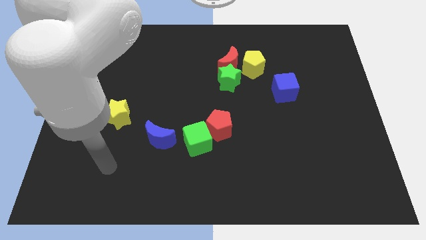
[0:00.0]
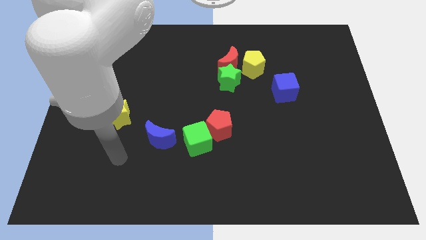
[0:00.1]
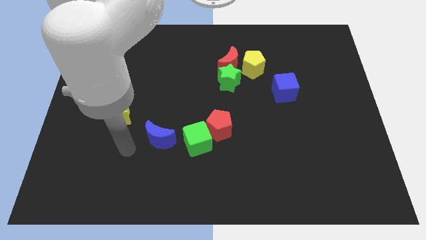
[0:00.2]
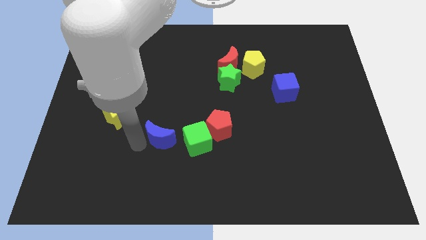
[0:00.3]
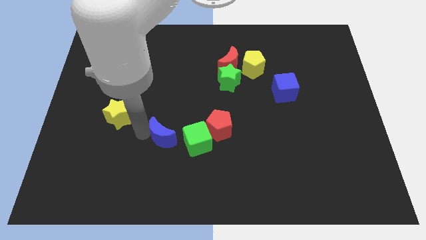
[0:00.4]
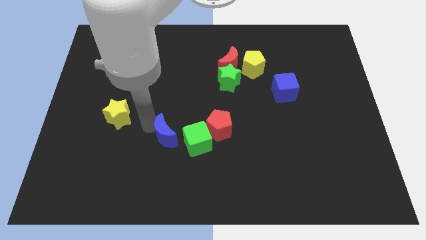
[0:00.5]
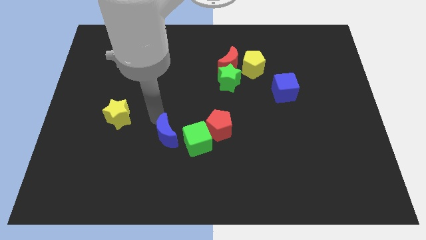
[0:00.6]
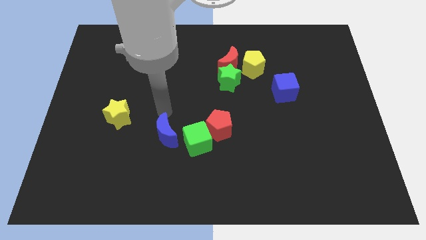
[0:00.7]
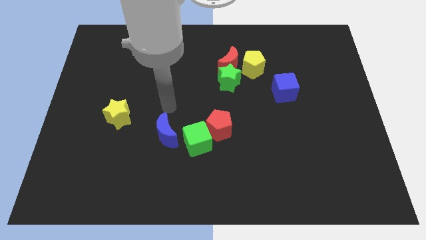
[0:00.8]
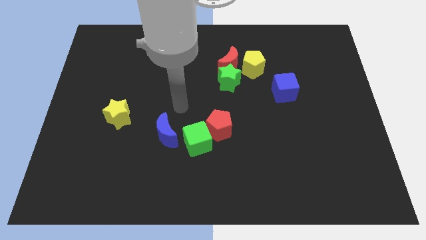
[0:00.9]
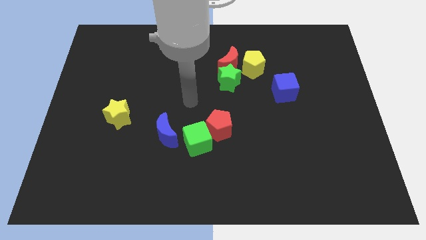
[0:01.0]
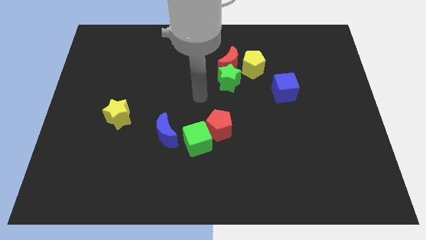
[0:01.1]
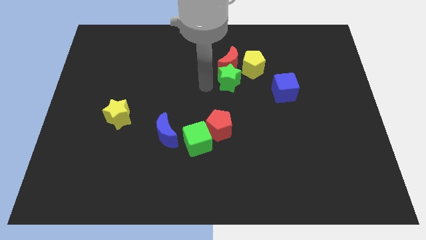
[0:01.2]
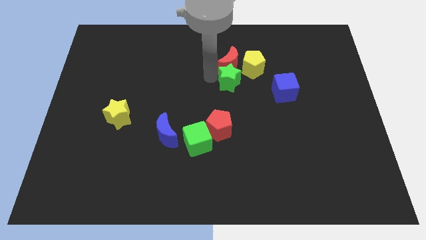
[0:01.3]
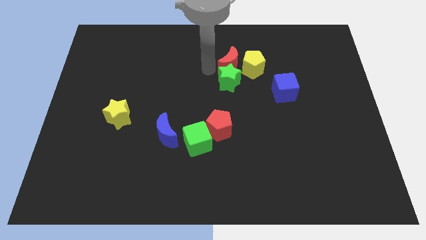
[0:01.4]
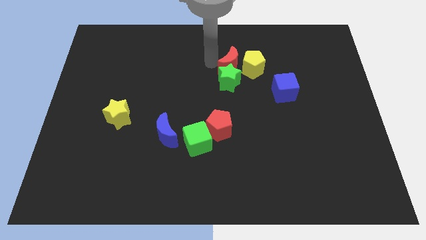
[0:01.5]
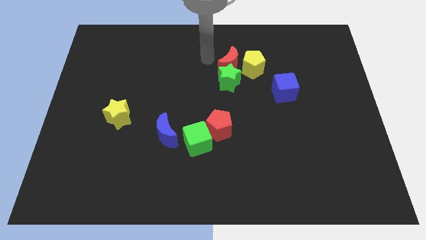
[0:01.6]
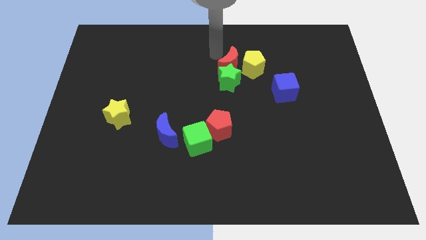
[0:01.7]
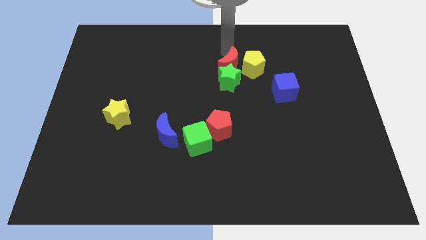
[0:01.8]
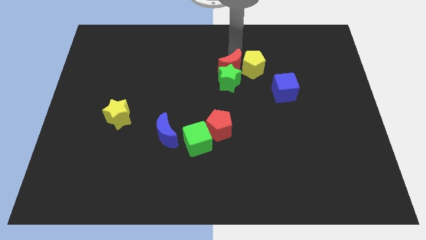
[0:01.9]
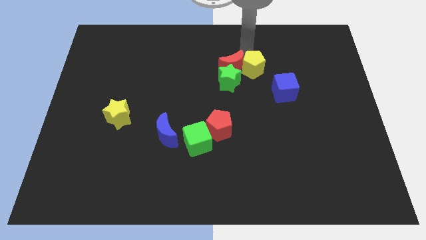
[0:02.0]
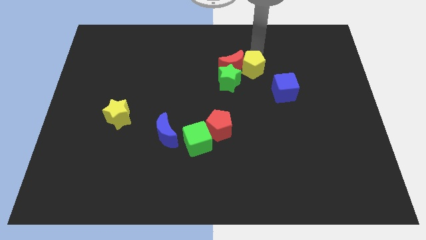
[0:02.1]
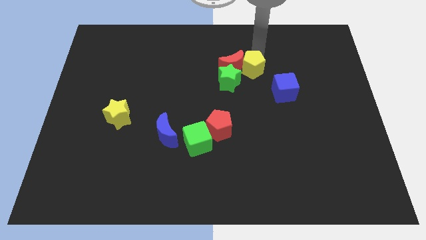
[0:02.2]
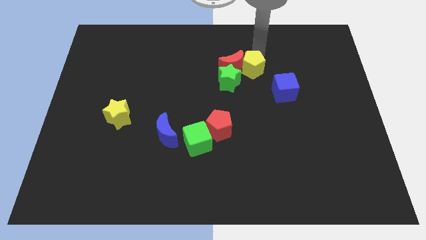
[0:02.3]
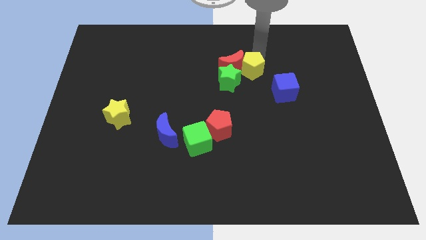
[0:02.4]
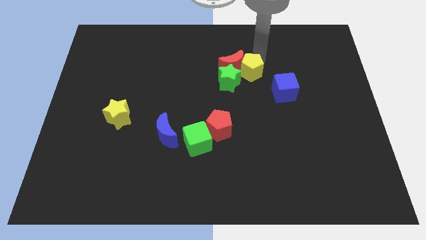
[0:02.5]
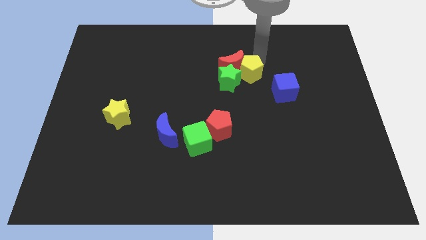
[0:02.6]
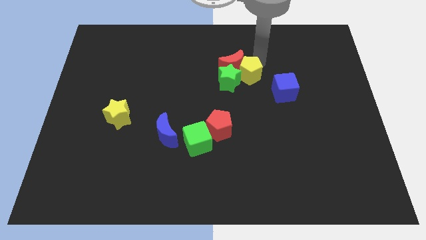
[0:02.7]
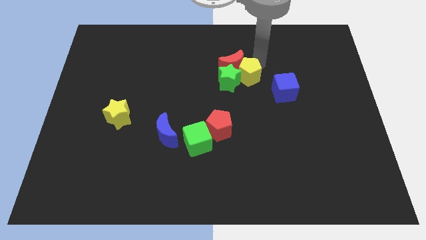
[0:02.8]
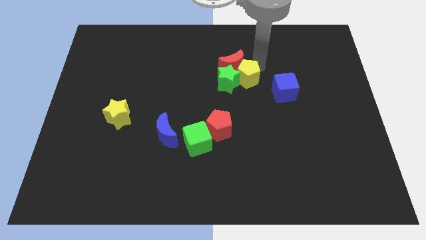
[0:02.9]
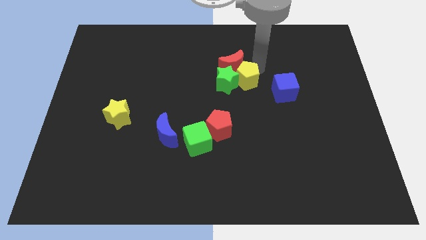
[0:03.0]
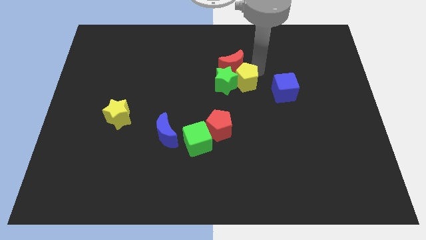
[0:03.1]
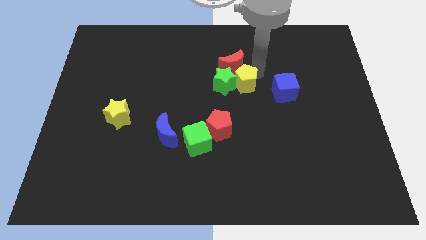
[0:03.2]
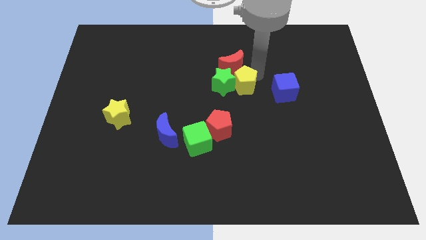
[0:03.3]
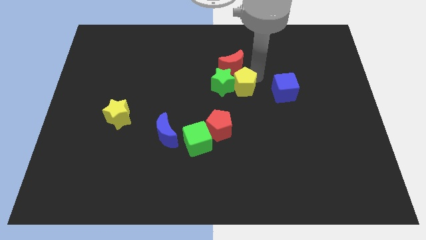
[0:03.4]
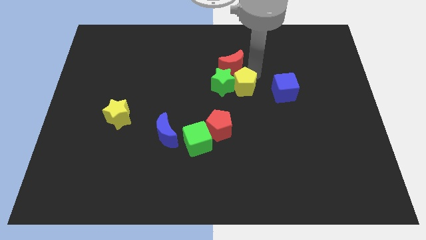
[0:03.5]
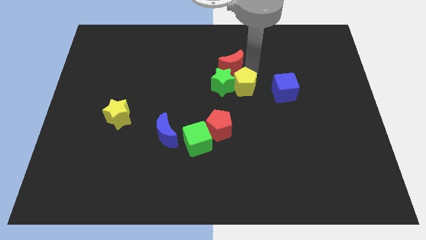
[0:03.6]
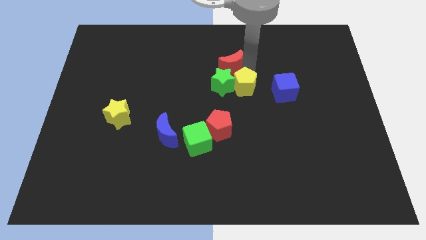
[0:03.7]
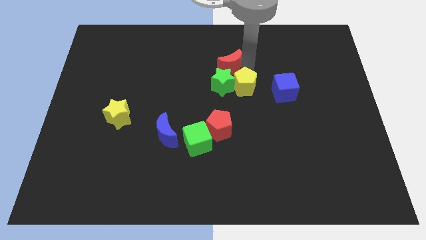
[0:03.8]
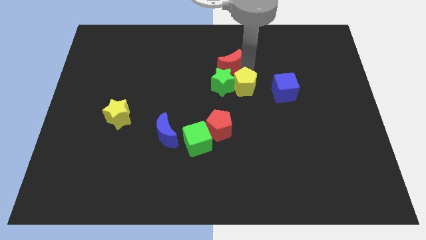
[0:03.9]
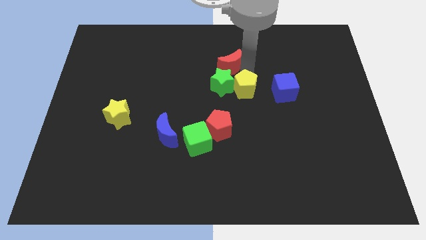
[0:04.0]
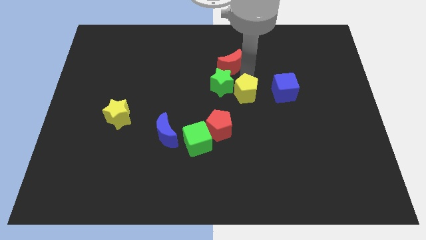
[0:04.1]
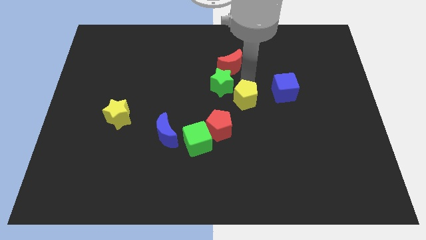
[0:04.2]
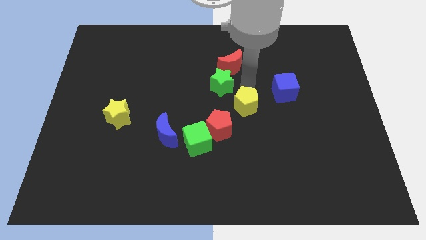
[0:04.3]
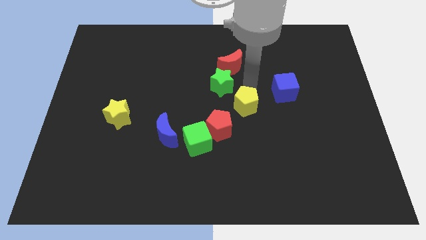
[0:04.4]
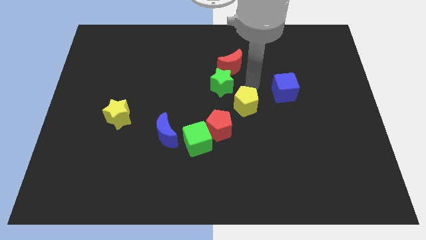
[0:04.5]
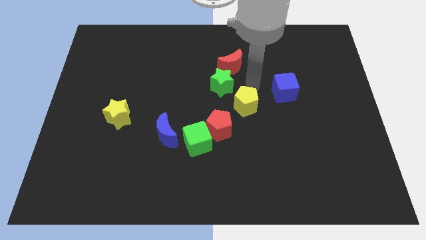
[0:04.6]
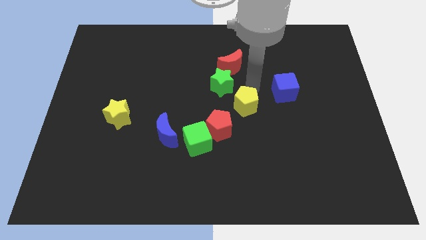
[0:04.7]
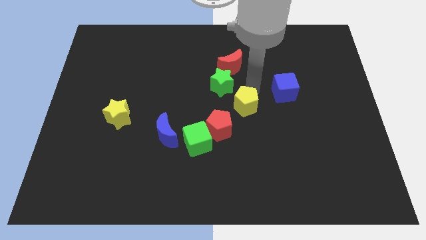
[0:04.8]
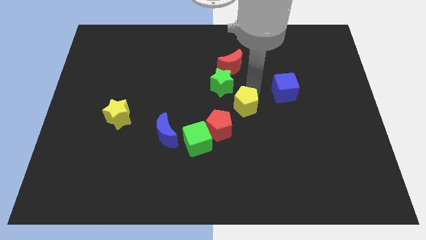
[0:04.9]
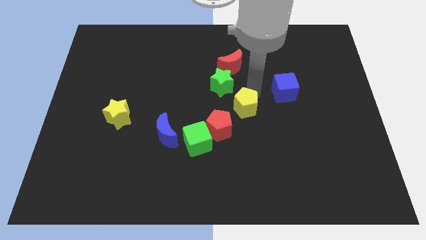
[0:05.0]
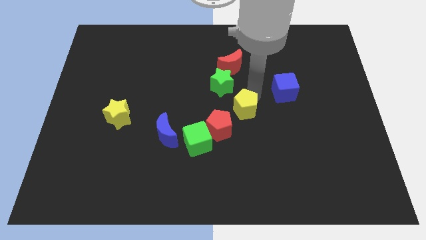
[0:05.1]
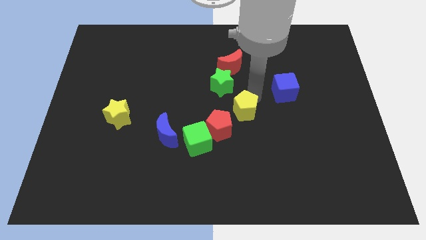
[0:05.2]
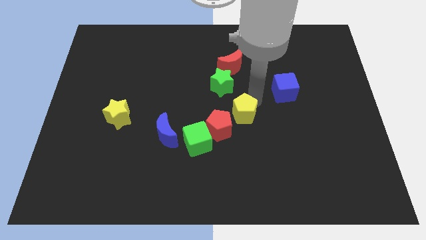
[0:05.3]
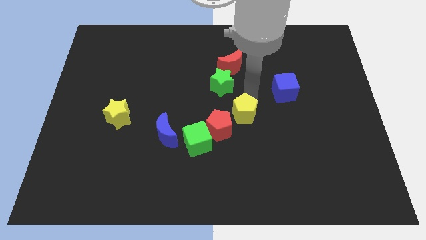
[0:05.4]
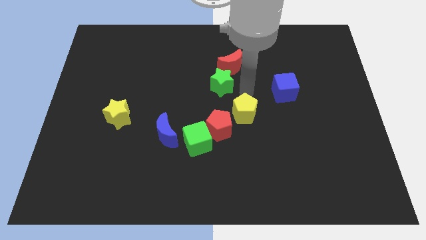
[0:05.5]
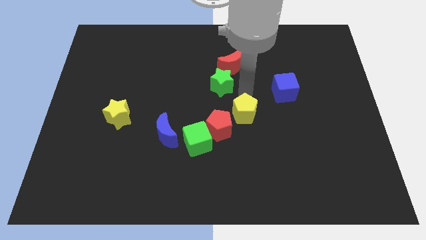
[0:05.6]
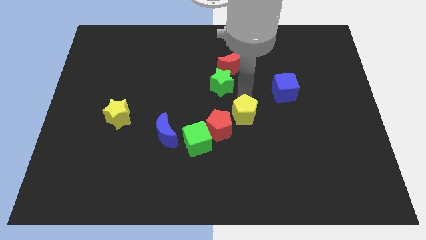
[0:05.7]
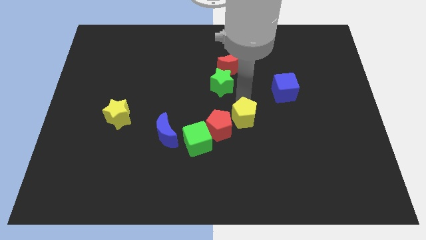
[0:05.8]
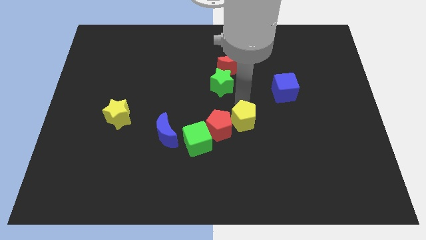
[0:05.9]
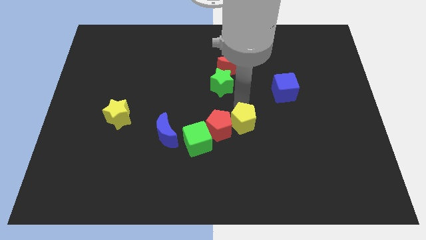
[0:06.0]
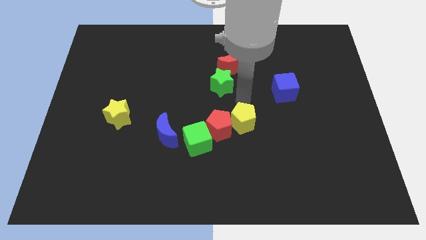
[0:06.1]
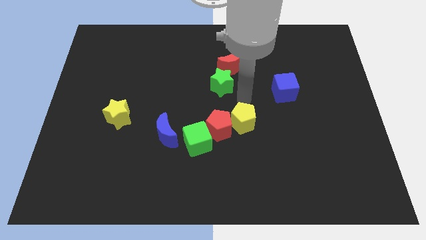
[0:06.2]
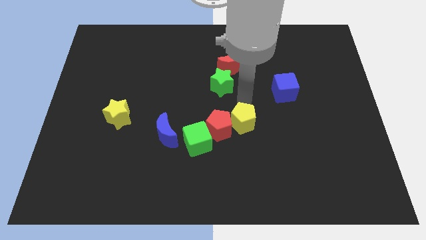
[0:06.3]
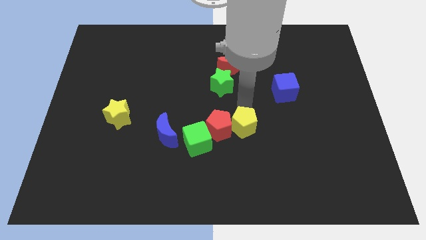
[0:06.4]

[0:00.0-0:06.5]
push the yellow pentagon diagonally down and to the right of the red pentagon

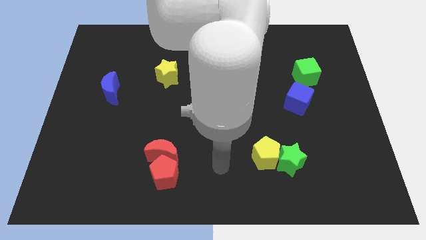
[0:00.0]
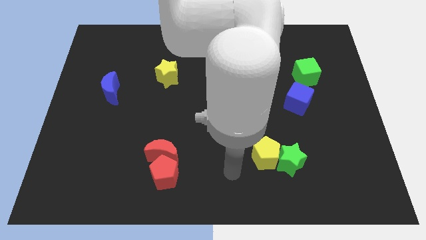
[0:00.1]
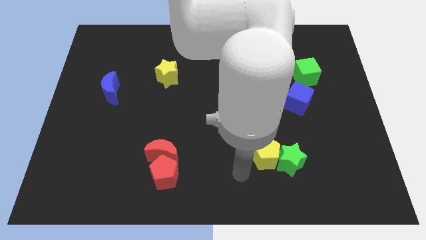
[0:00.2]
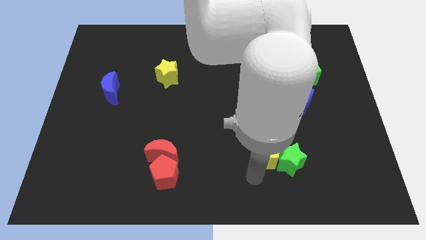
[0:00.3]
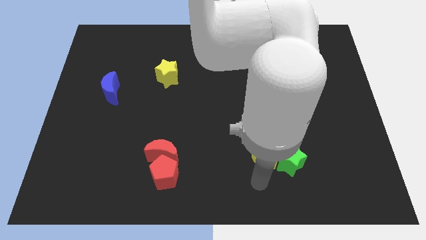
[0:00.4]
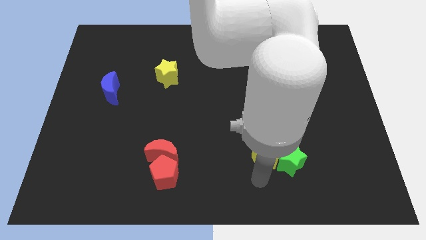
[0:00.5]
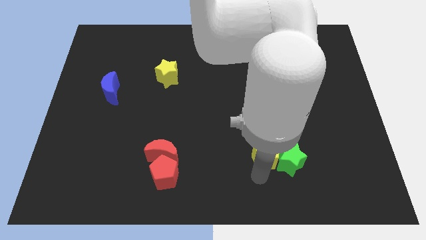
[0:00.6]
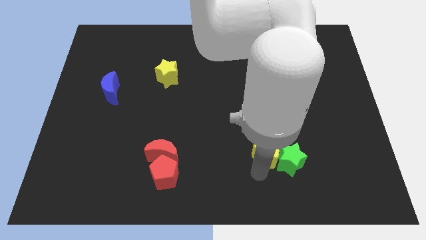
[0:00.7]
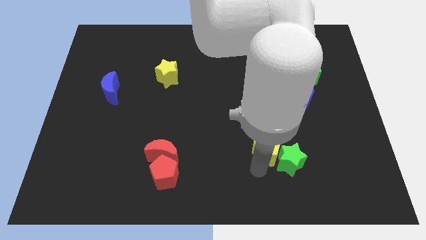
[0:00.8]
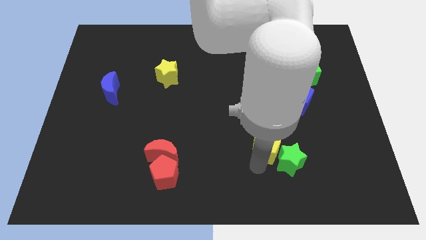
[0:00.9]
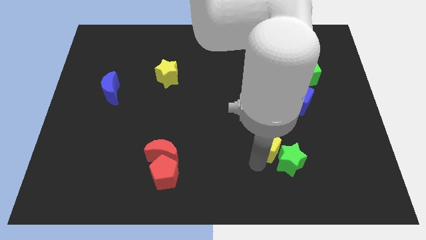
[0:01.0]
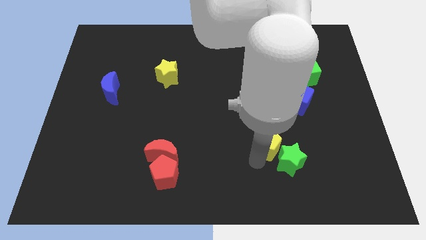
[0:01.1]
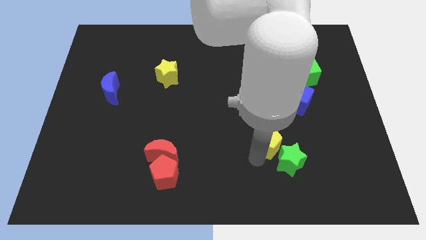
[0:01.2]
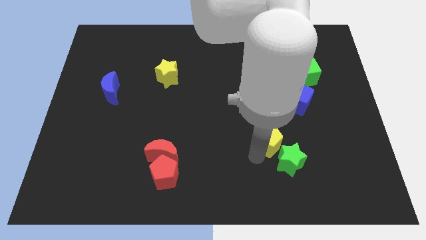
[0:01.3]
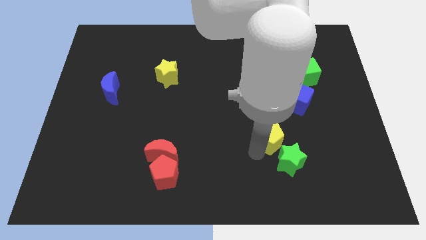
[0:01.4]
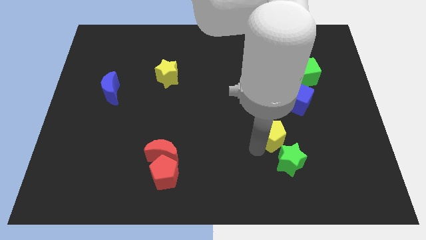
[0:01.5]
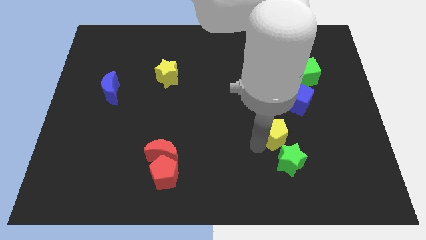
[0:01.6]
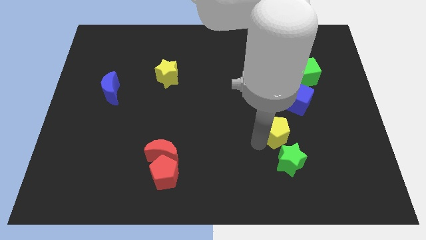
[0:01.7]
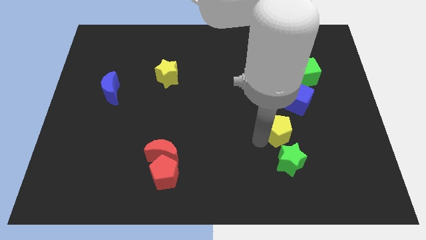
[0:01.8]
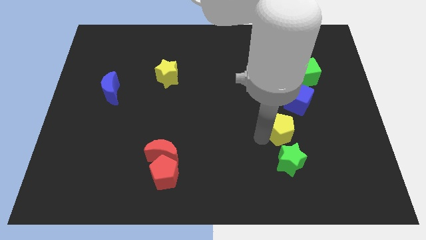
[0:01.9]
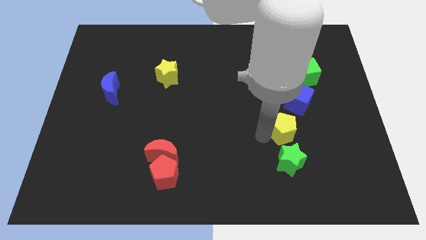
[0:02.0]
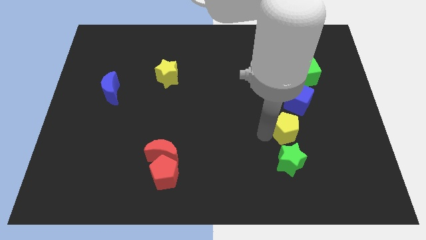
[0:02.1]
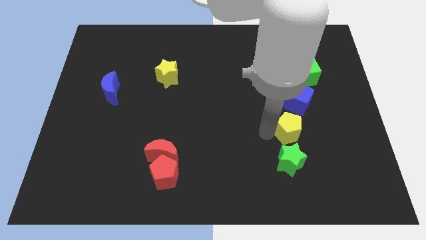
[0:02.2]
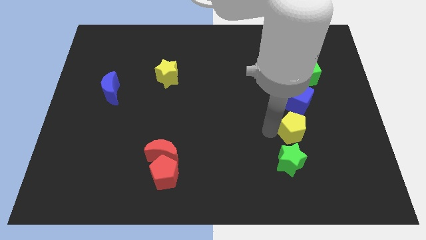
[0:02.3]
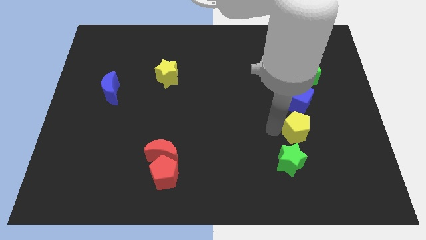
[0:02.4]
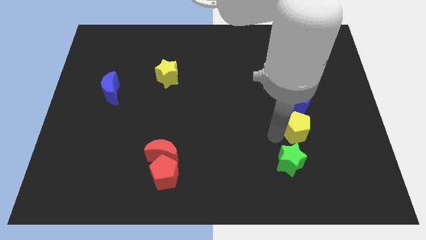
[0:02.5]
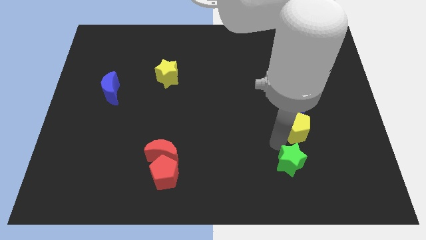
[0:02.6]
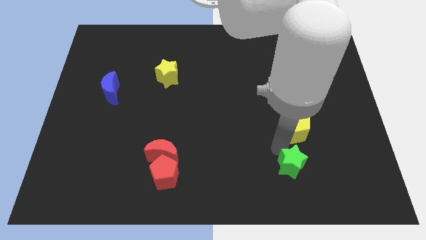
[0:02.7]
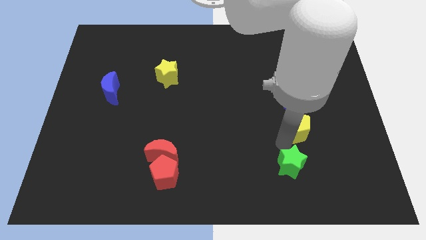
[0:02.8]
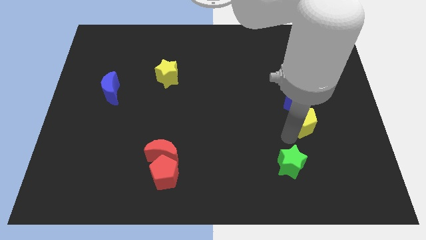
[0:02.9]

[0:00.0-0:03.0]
put the yellow pentagon to the bottom of the green cube
